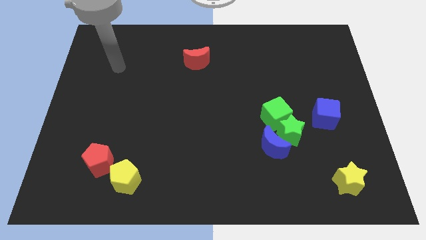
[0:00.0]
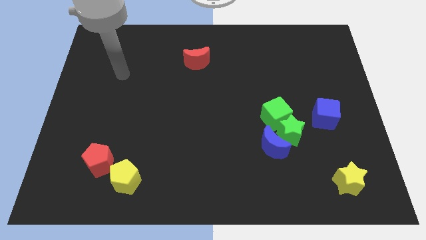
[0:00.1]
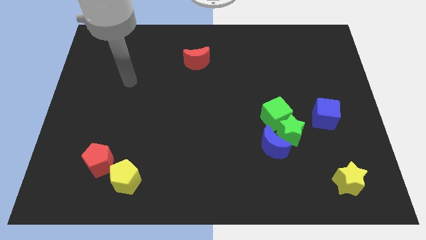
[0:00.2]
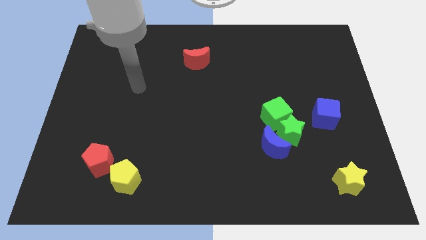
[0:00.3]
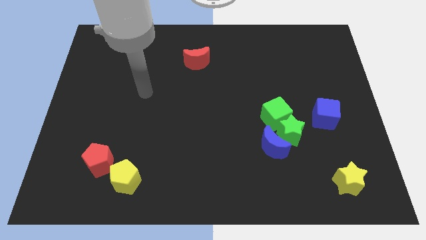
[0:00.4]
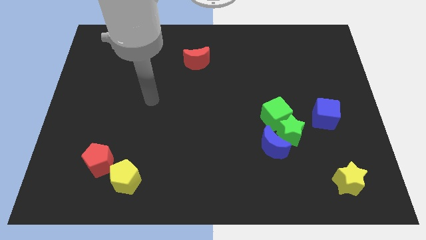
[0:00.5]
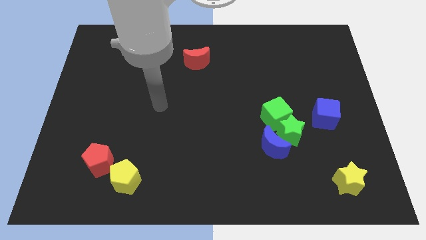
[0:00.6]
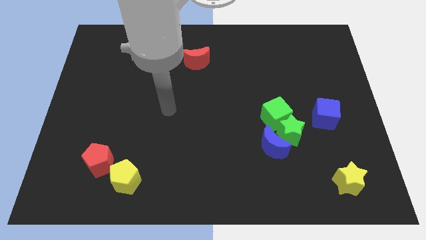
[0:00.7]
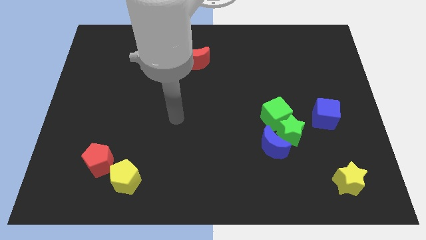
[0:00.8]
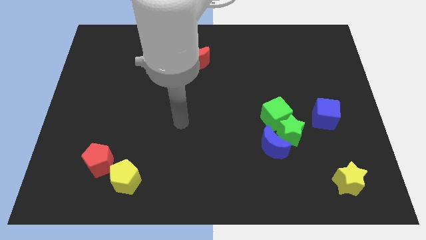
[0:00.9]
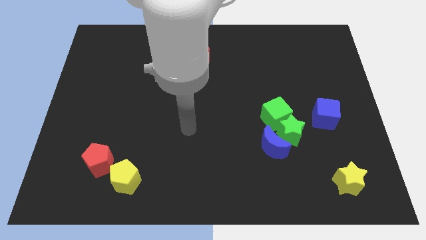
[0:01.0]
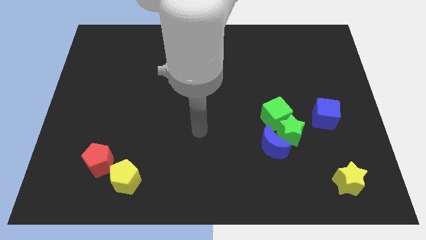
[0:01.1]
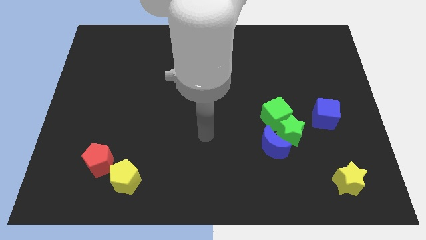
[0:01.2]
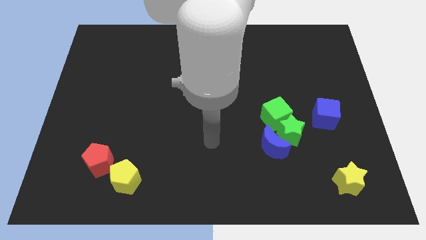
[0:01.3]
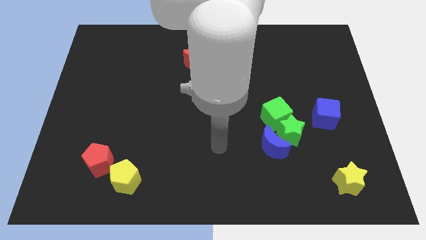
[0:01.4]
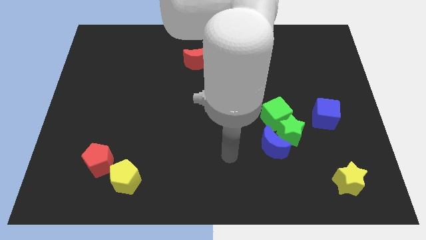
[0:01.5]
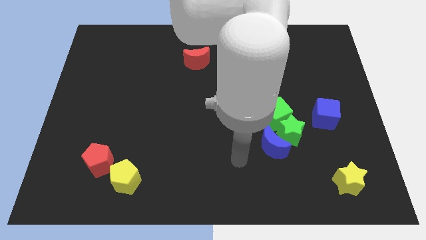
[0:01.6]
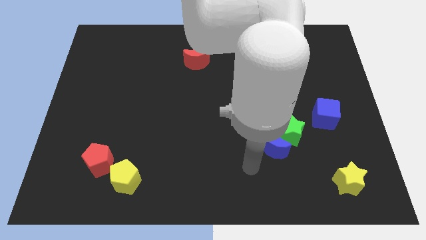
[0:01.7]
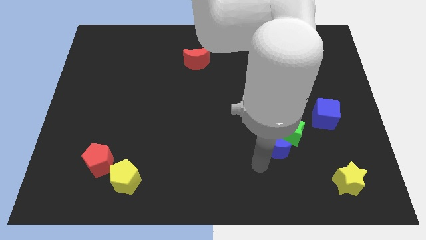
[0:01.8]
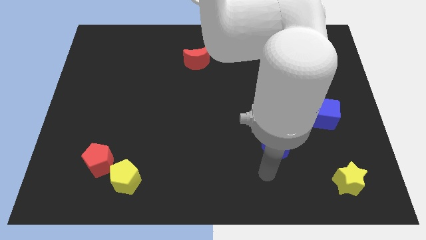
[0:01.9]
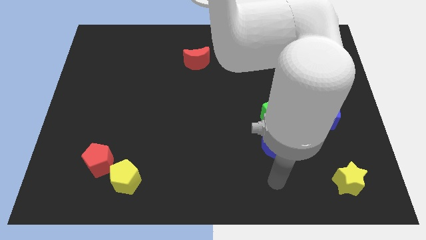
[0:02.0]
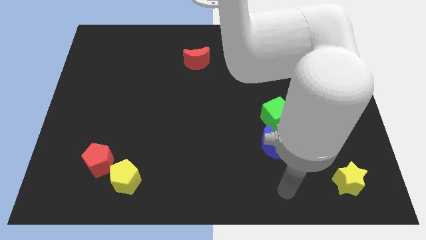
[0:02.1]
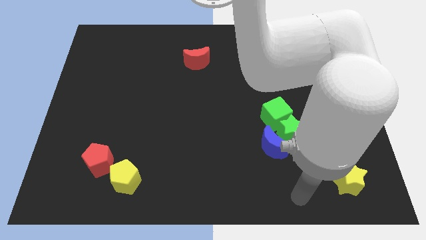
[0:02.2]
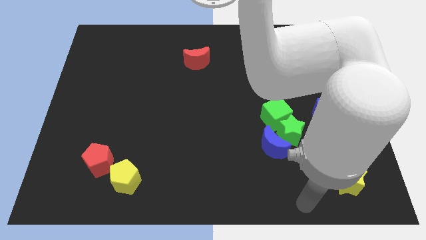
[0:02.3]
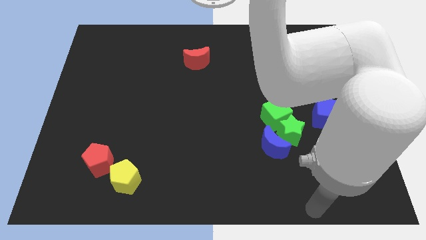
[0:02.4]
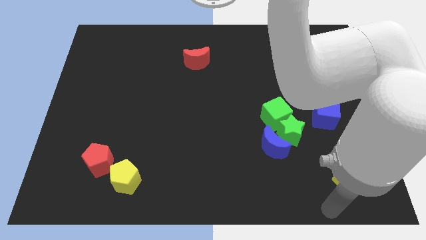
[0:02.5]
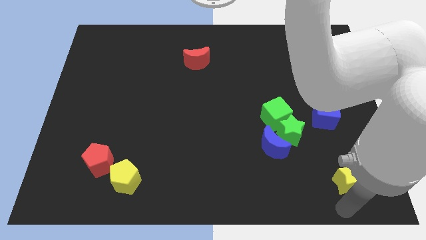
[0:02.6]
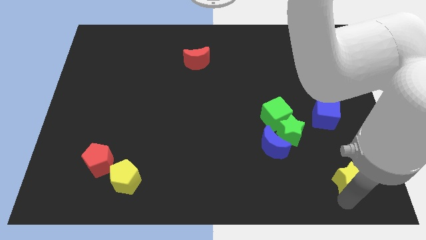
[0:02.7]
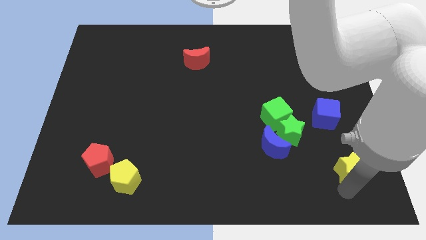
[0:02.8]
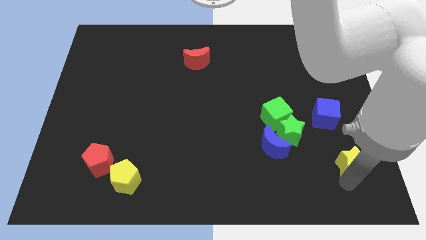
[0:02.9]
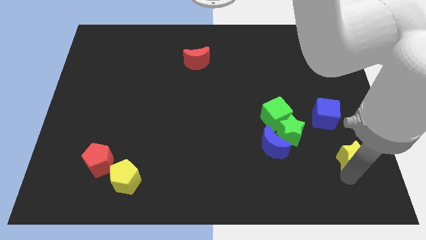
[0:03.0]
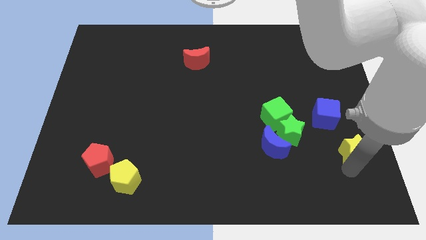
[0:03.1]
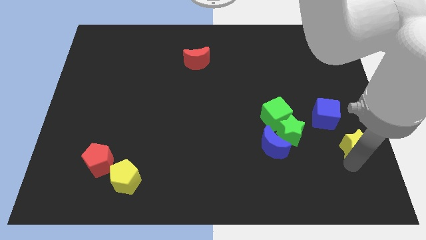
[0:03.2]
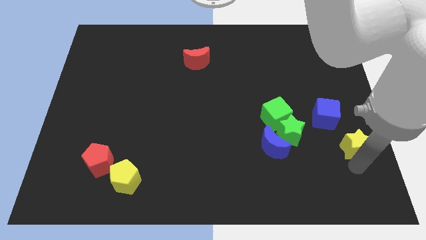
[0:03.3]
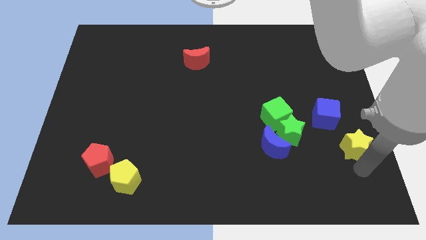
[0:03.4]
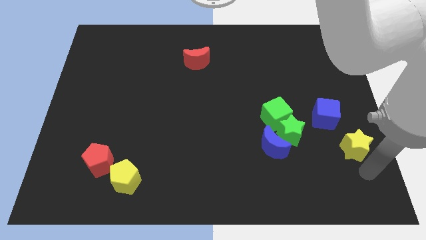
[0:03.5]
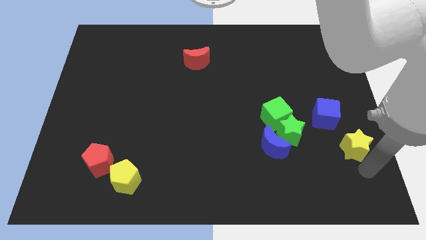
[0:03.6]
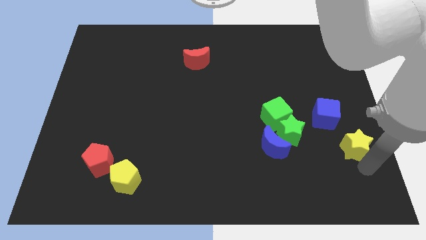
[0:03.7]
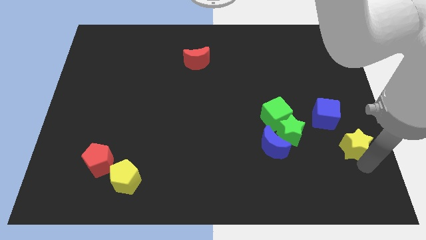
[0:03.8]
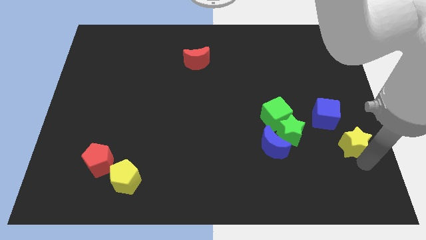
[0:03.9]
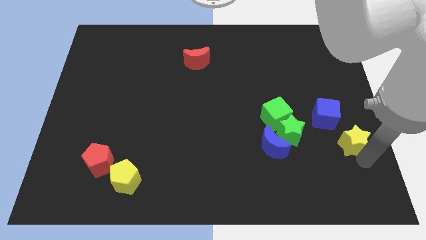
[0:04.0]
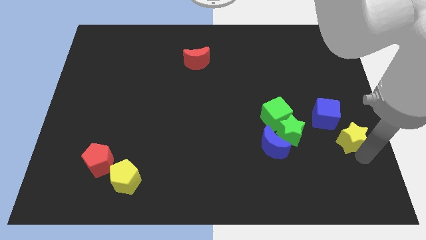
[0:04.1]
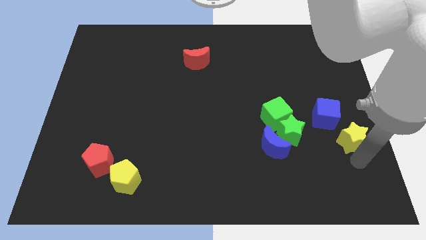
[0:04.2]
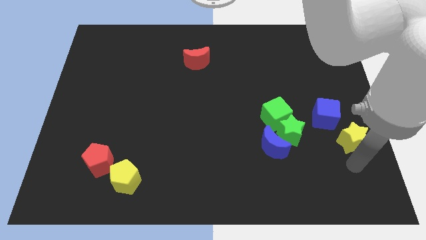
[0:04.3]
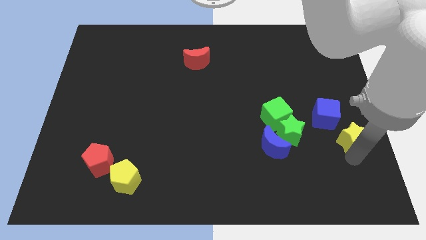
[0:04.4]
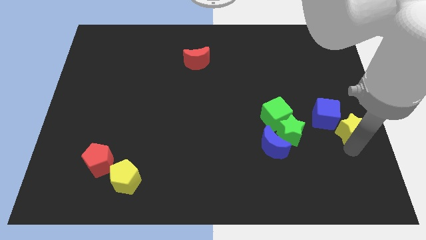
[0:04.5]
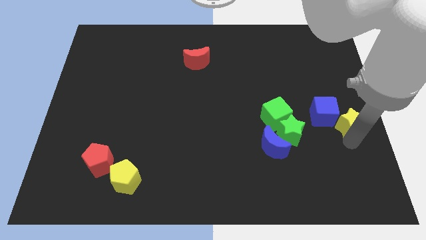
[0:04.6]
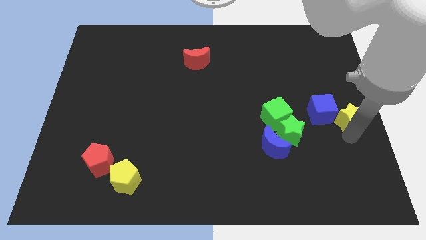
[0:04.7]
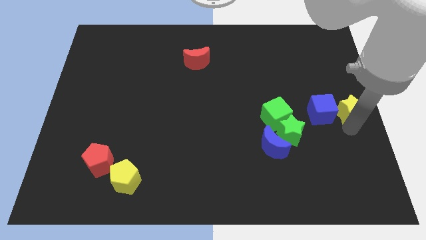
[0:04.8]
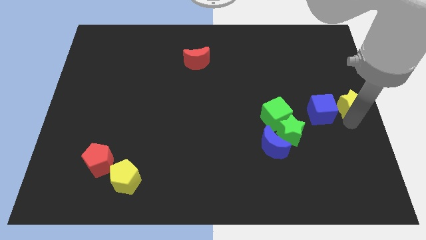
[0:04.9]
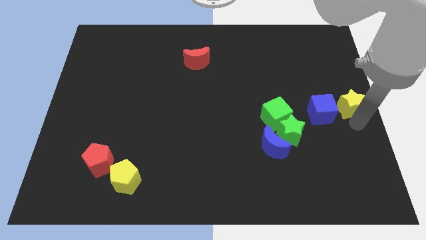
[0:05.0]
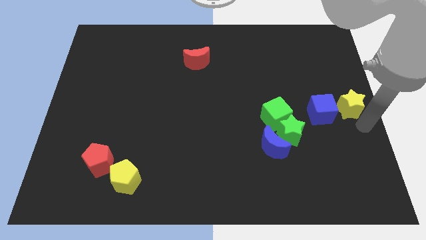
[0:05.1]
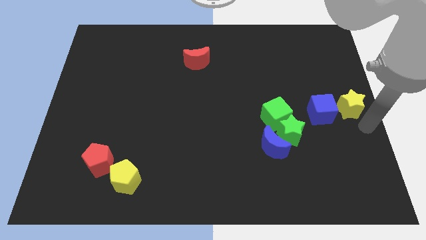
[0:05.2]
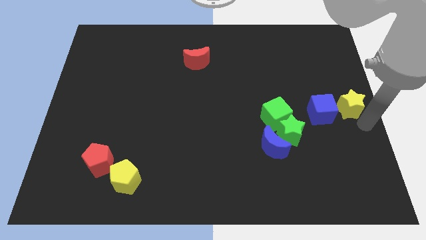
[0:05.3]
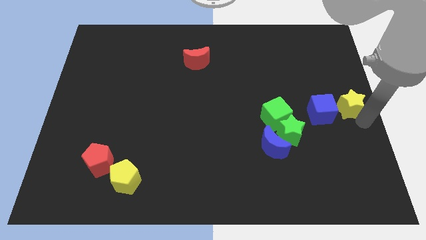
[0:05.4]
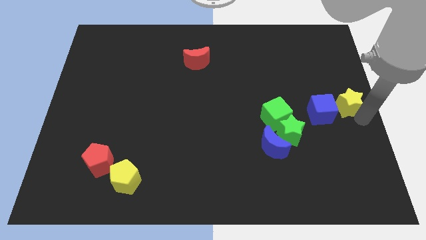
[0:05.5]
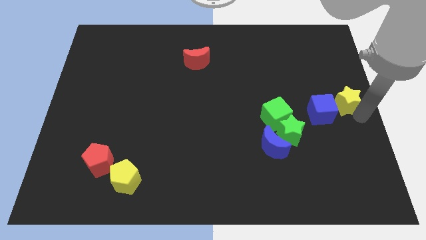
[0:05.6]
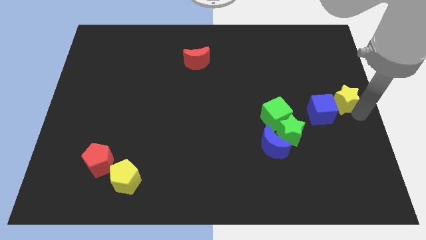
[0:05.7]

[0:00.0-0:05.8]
move the yellow star up

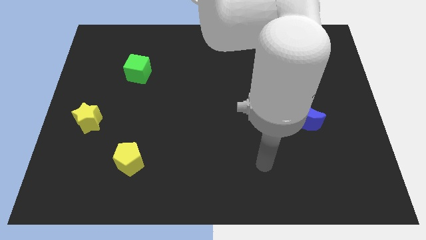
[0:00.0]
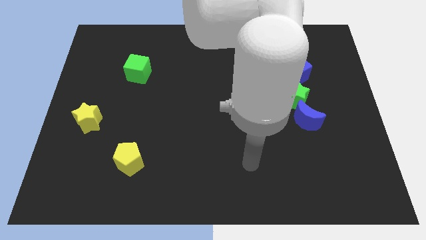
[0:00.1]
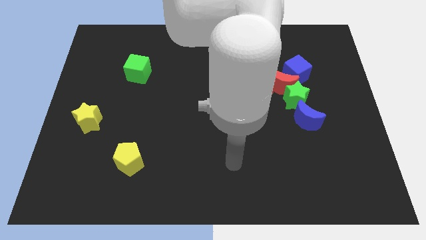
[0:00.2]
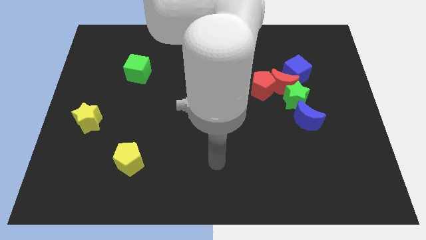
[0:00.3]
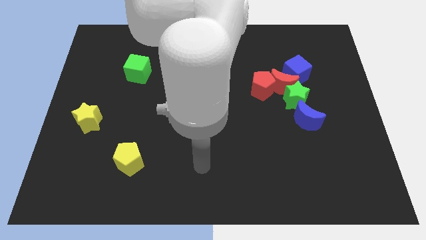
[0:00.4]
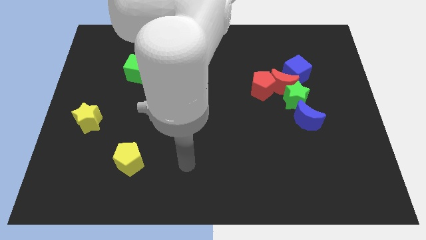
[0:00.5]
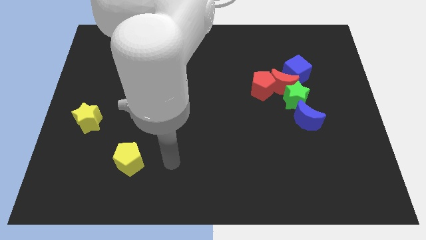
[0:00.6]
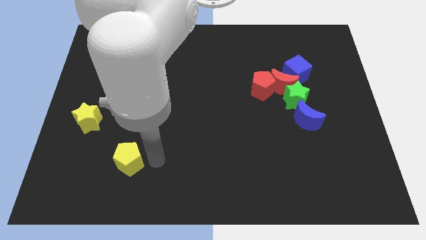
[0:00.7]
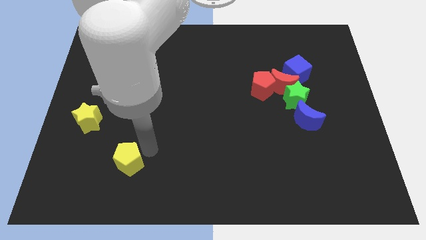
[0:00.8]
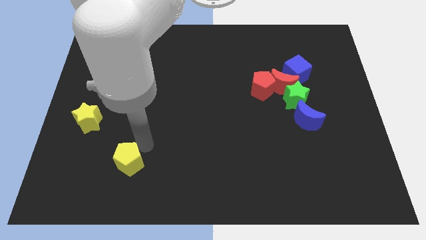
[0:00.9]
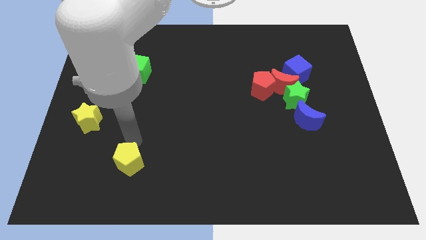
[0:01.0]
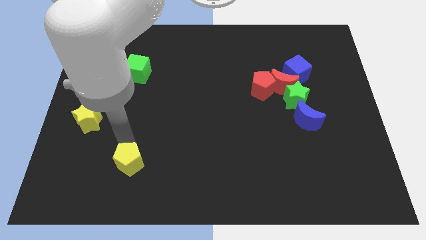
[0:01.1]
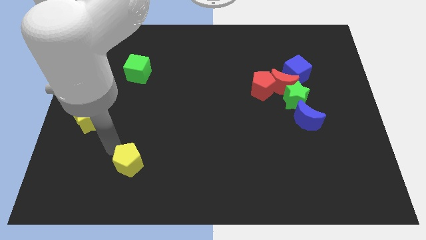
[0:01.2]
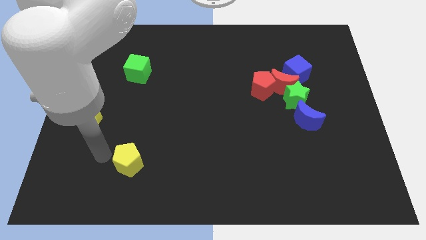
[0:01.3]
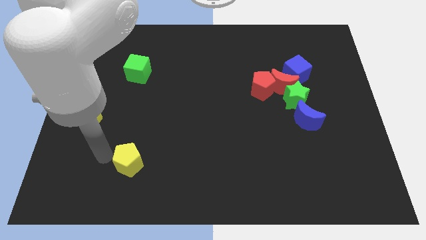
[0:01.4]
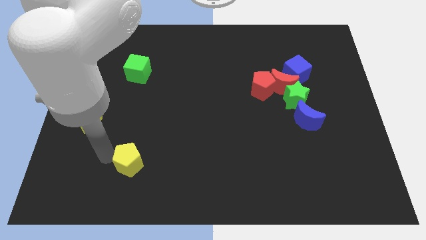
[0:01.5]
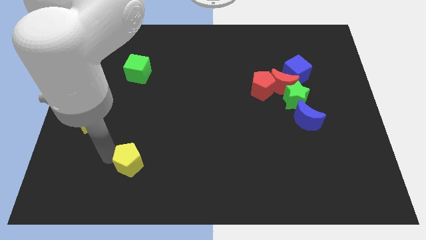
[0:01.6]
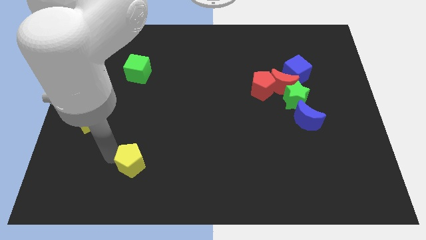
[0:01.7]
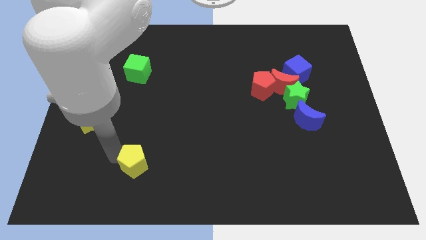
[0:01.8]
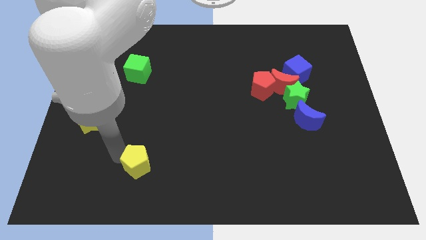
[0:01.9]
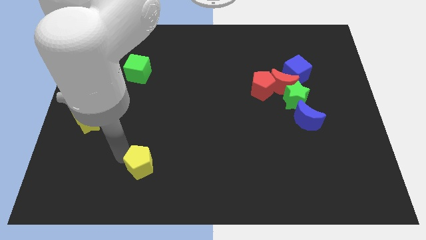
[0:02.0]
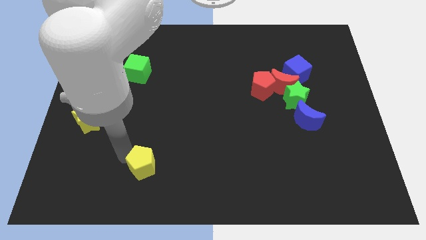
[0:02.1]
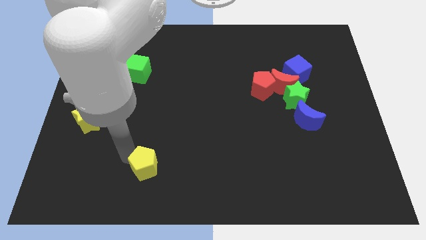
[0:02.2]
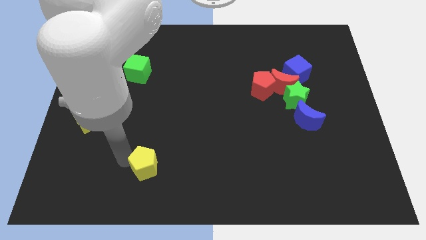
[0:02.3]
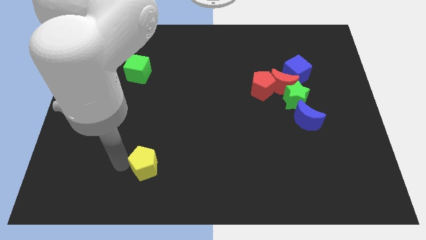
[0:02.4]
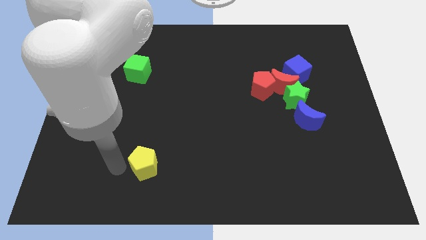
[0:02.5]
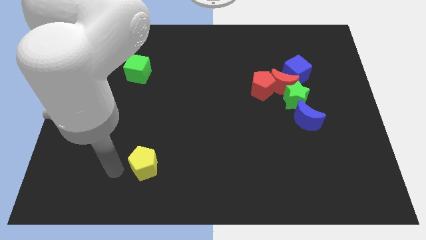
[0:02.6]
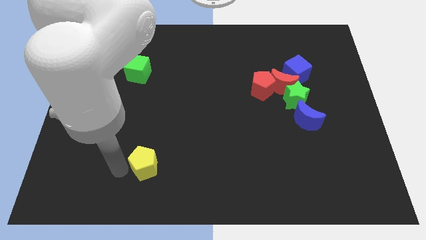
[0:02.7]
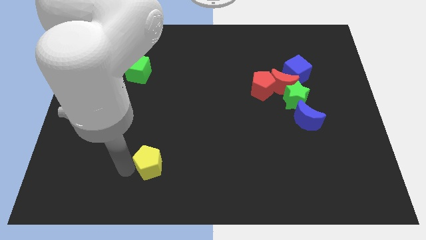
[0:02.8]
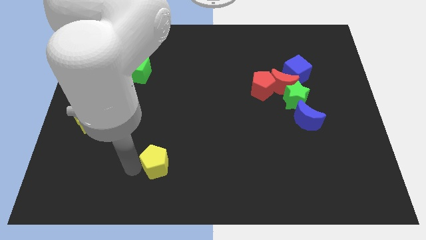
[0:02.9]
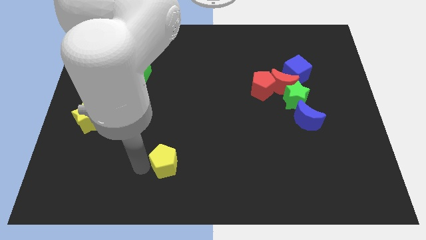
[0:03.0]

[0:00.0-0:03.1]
slightly move the yellow pentagon right
